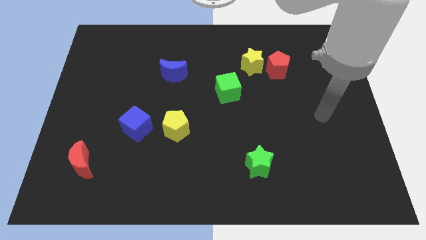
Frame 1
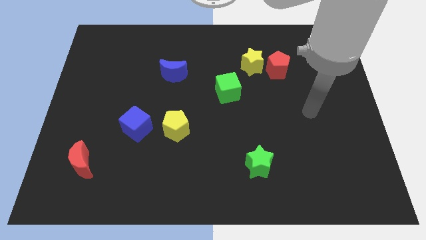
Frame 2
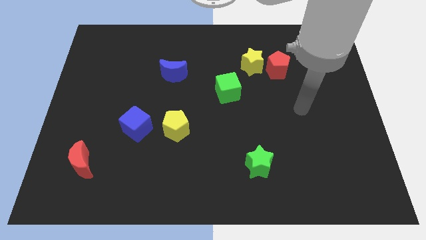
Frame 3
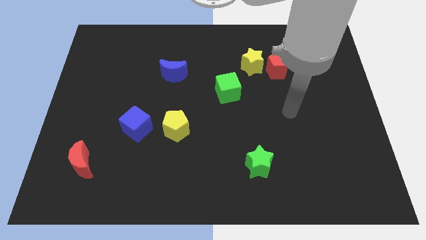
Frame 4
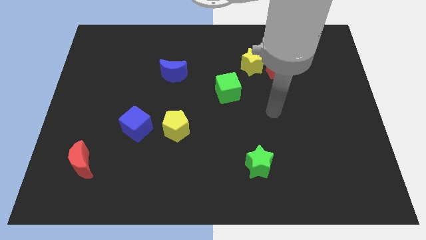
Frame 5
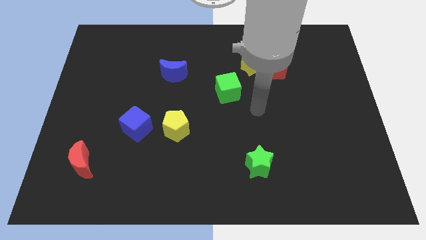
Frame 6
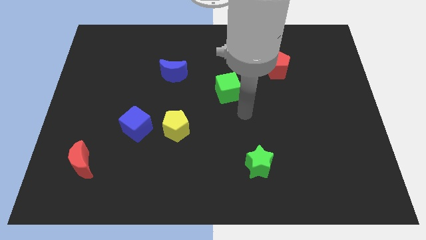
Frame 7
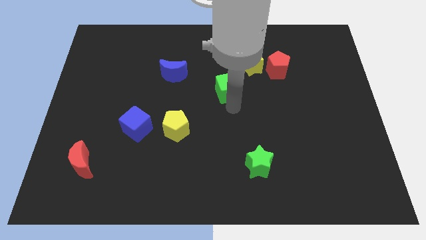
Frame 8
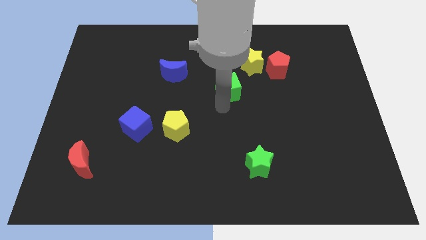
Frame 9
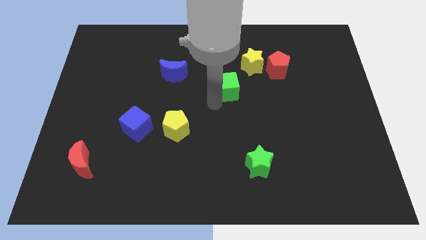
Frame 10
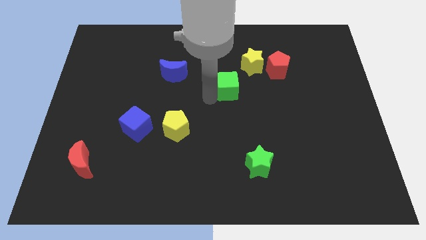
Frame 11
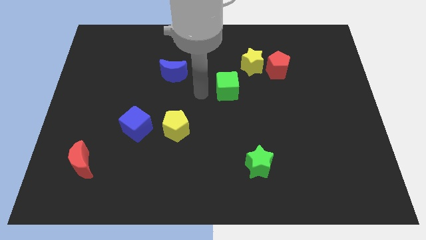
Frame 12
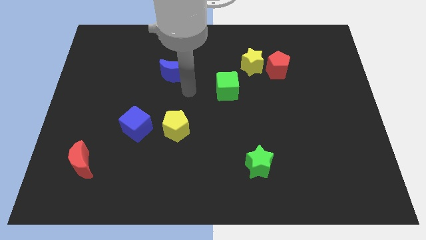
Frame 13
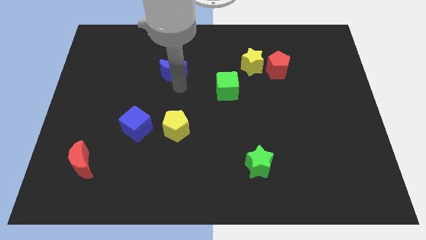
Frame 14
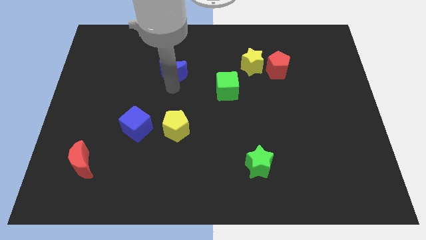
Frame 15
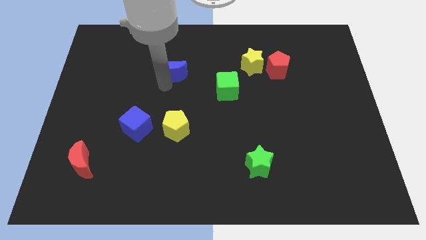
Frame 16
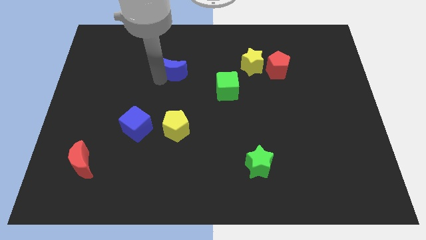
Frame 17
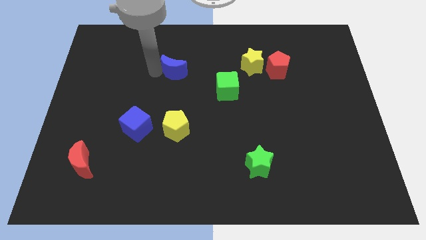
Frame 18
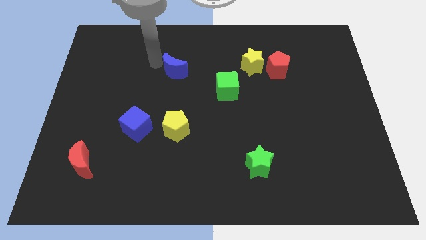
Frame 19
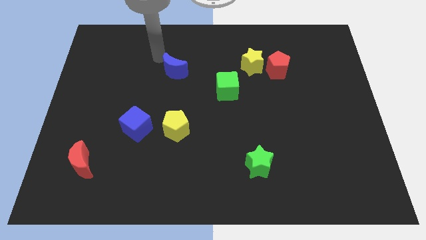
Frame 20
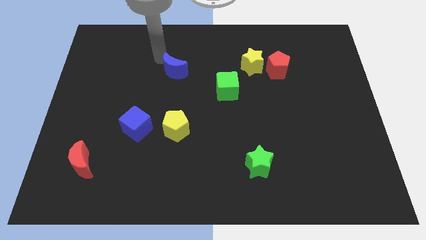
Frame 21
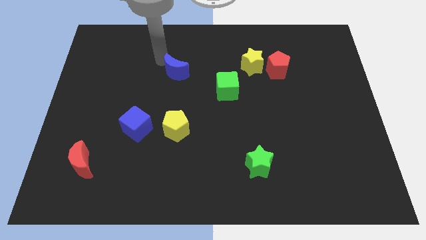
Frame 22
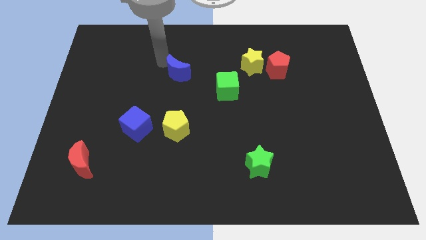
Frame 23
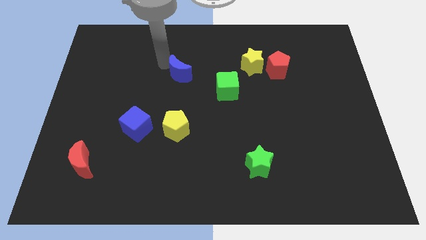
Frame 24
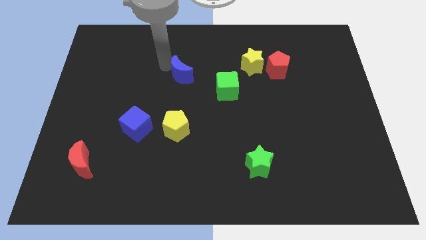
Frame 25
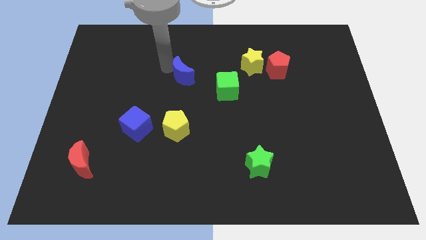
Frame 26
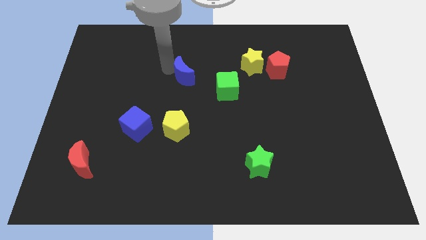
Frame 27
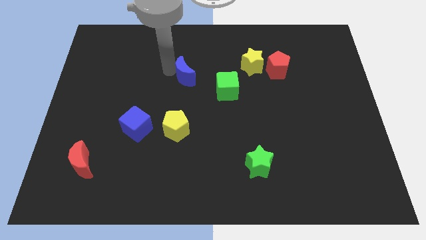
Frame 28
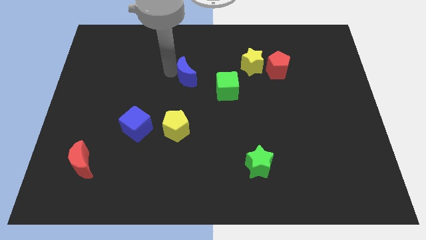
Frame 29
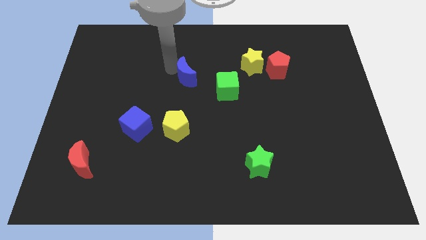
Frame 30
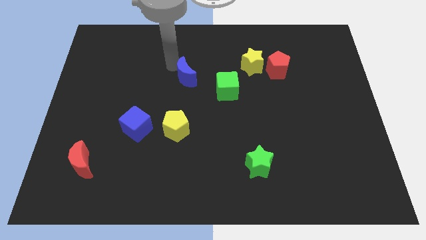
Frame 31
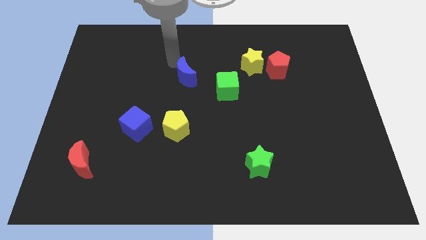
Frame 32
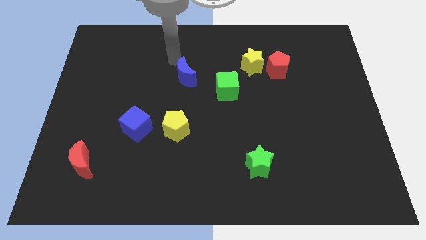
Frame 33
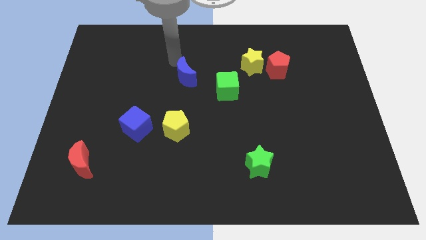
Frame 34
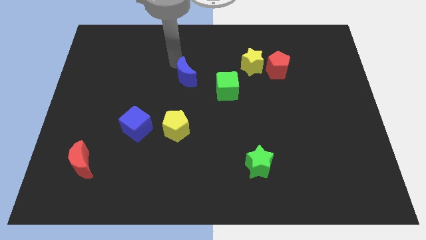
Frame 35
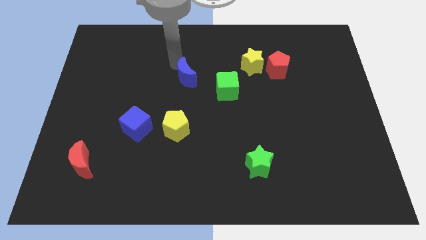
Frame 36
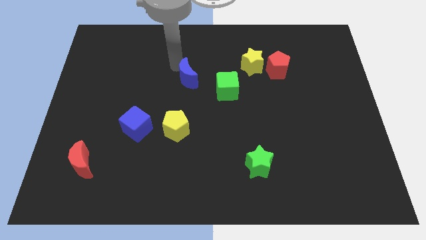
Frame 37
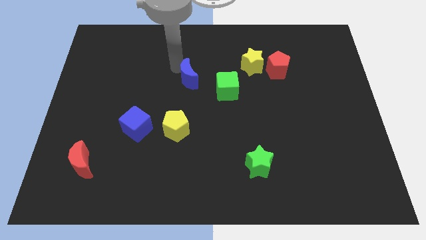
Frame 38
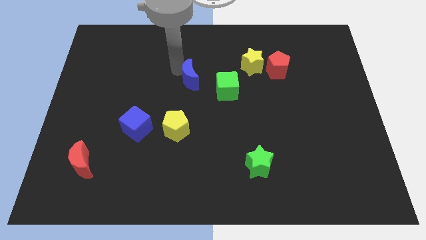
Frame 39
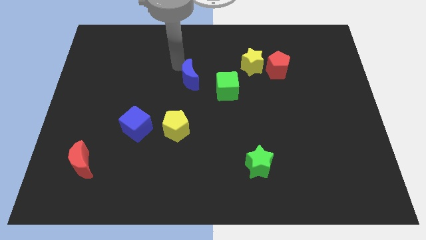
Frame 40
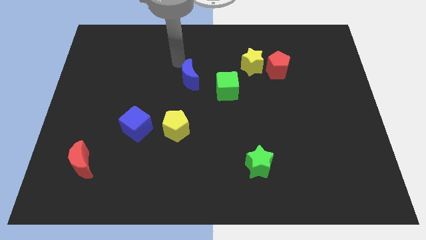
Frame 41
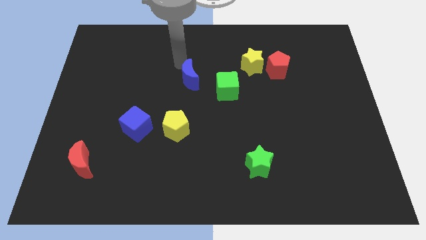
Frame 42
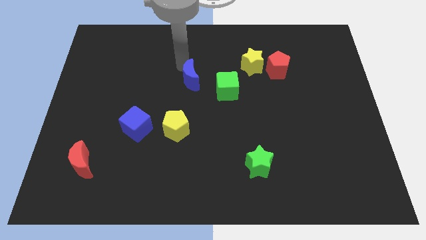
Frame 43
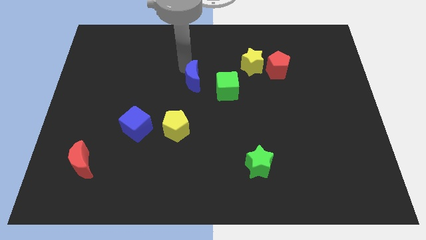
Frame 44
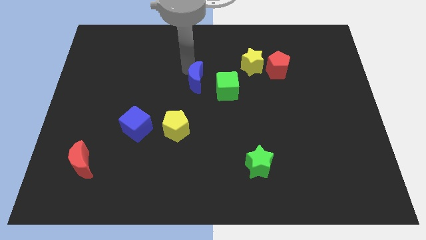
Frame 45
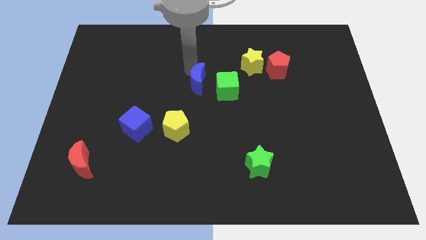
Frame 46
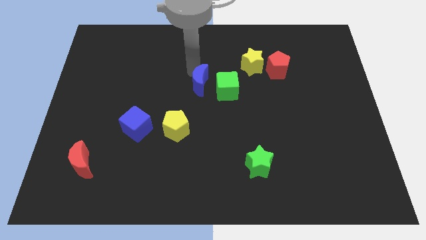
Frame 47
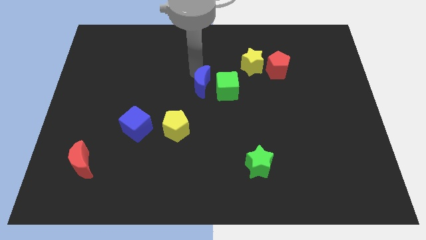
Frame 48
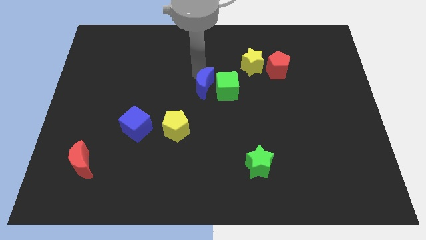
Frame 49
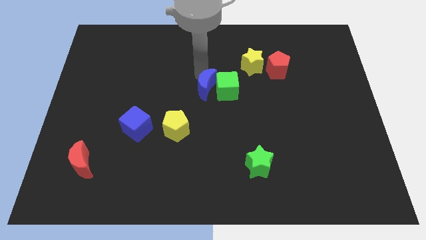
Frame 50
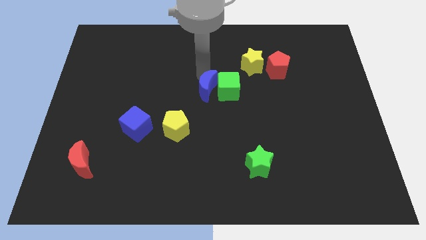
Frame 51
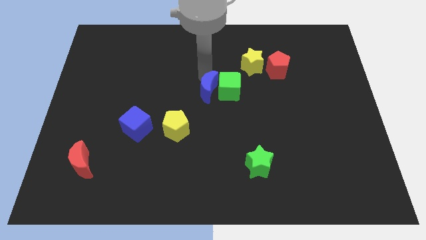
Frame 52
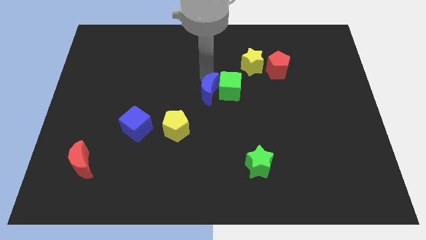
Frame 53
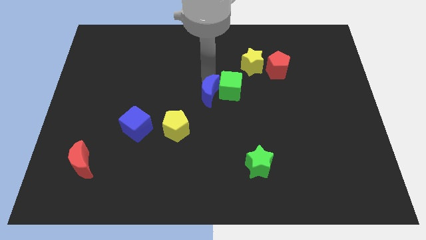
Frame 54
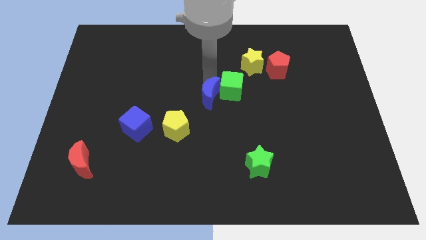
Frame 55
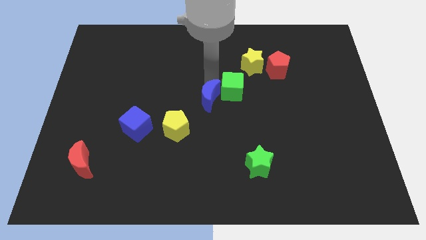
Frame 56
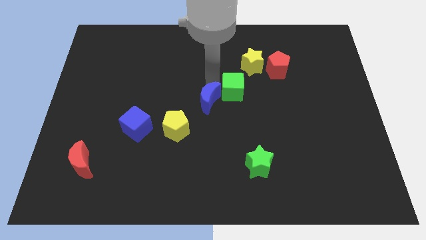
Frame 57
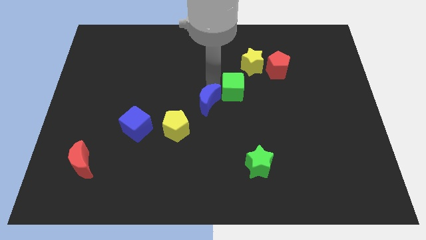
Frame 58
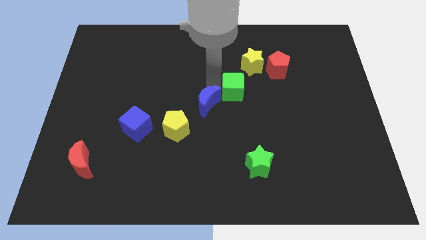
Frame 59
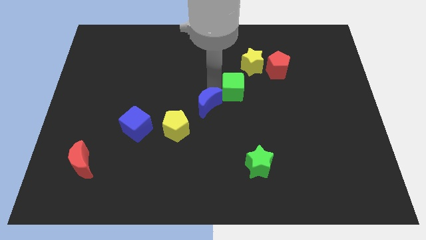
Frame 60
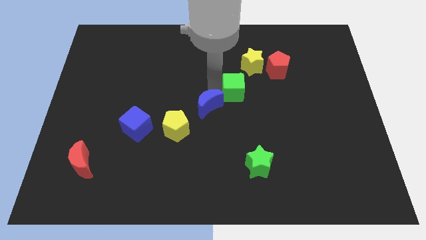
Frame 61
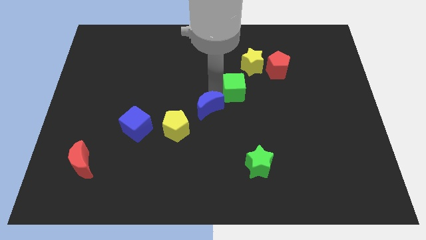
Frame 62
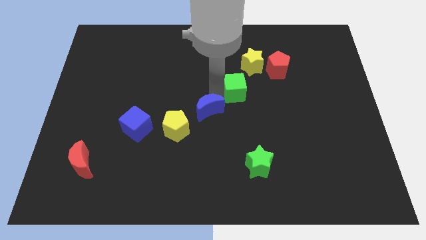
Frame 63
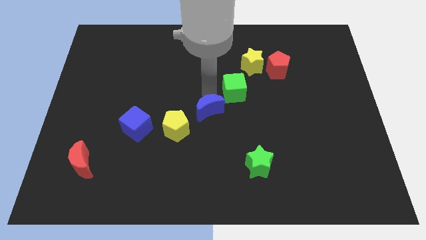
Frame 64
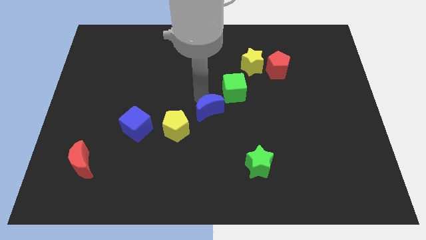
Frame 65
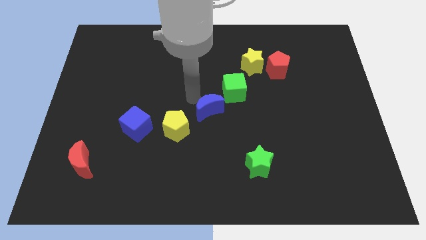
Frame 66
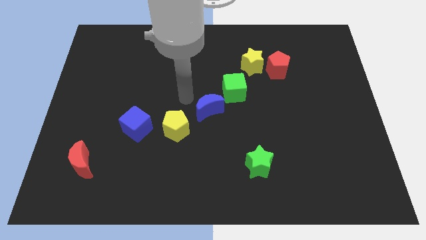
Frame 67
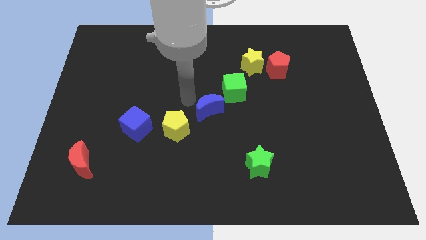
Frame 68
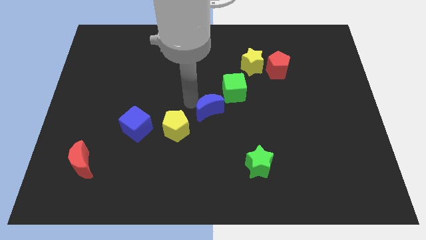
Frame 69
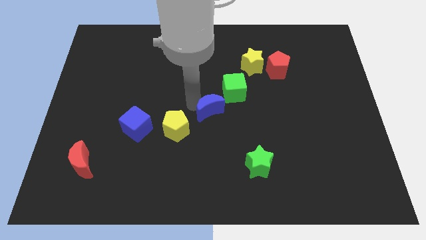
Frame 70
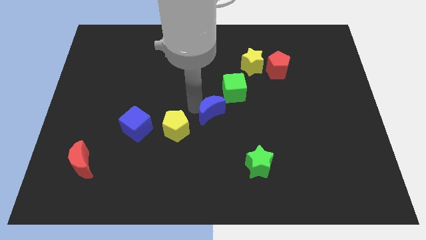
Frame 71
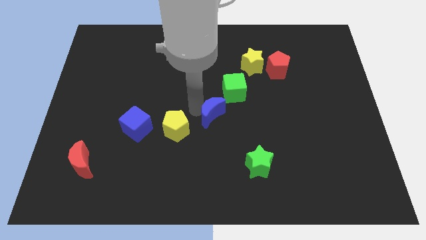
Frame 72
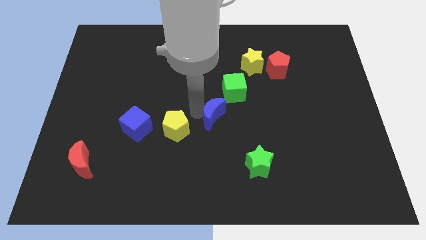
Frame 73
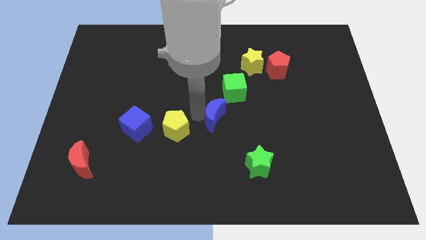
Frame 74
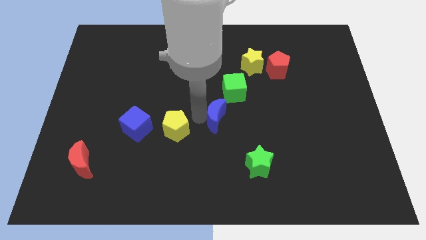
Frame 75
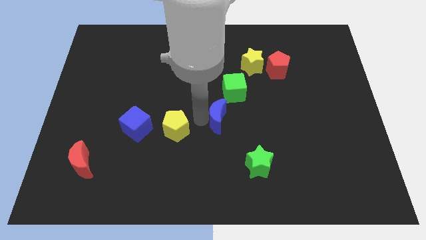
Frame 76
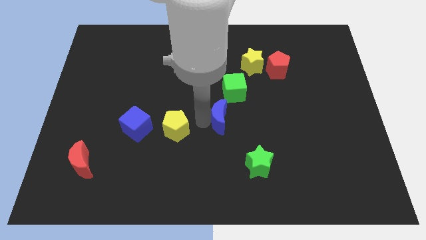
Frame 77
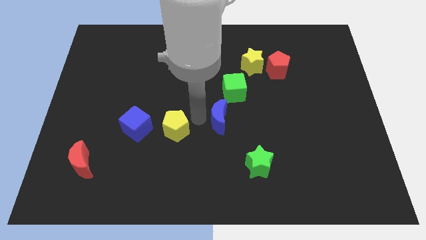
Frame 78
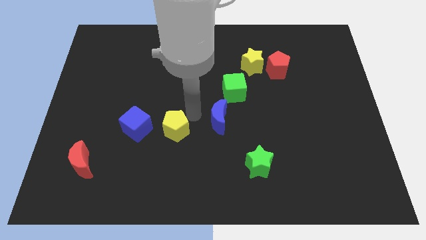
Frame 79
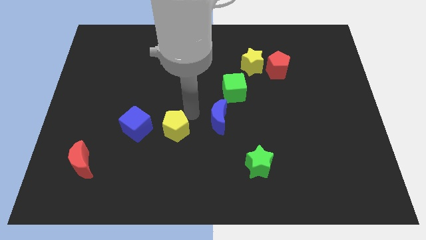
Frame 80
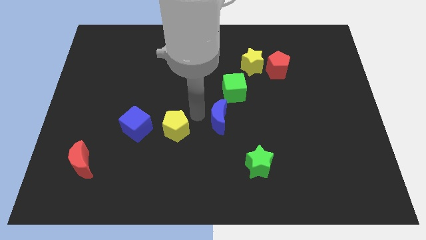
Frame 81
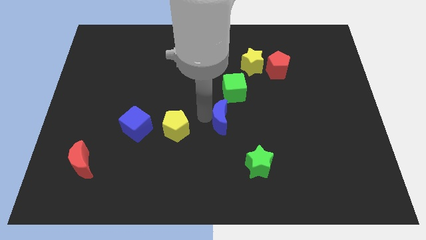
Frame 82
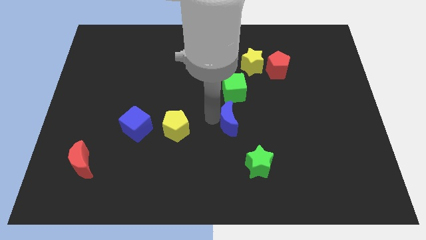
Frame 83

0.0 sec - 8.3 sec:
slide the blue moon down and to the right

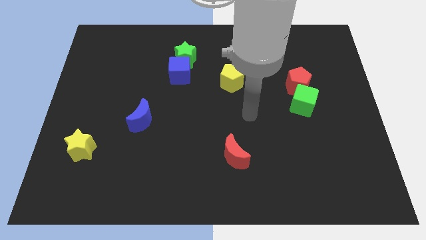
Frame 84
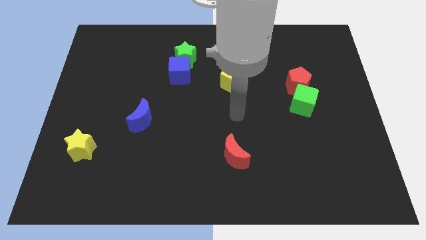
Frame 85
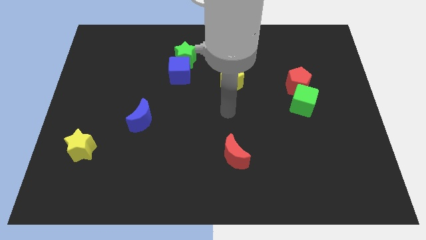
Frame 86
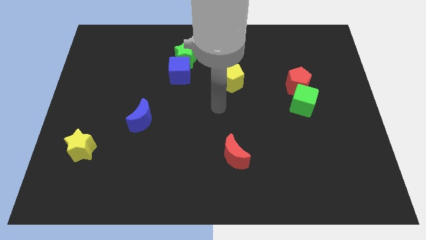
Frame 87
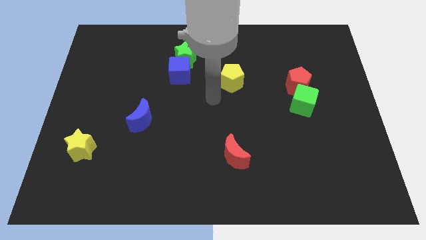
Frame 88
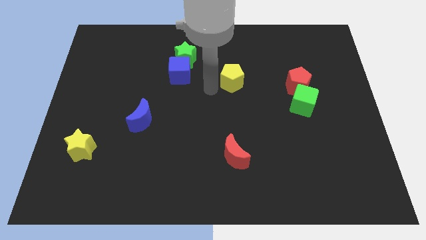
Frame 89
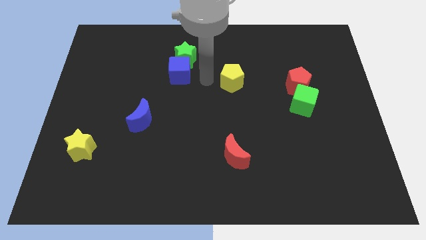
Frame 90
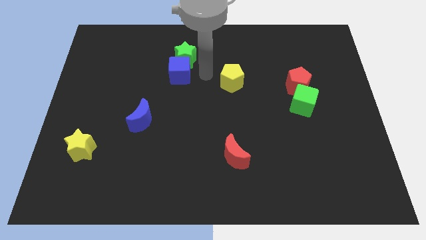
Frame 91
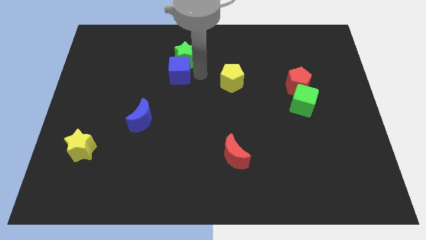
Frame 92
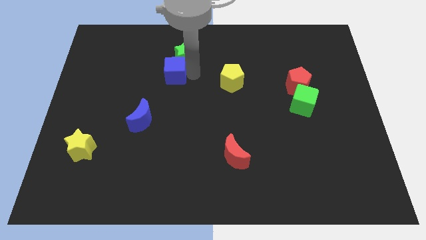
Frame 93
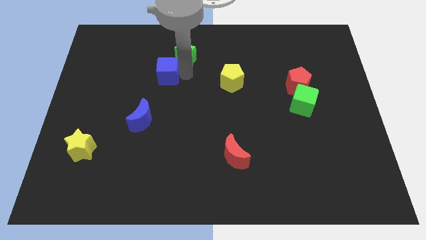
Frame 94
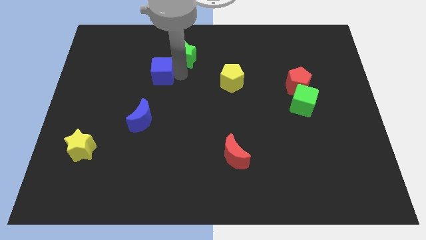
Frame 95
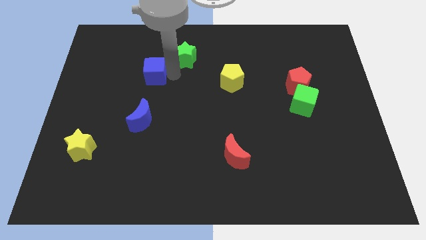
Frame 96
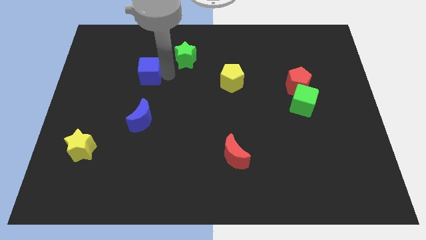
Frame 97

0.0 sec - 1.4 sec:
push the blue cube a bit to the left
